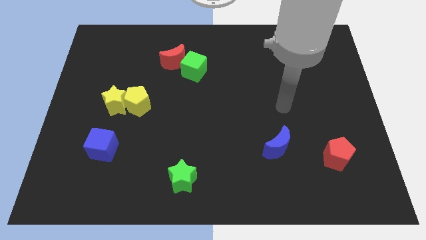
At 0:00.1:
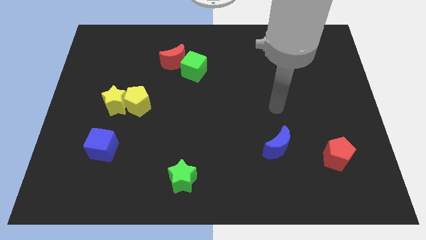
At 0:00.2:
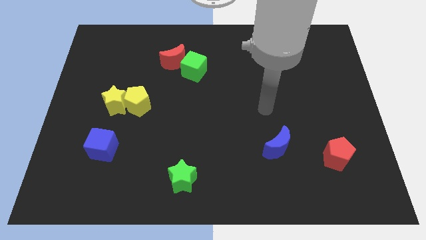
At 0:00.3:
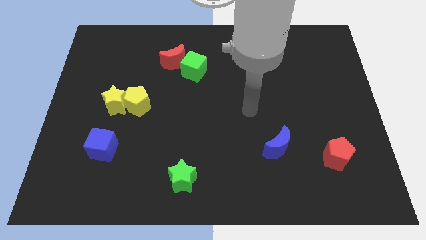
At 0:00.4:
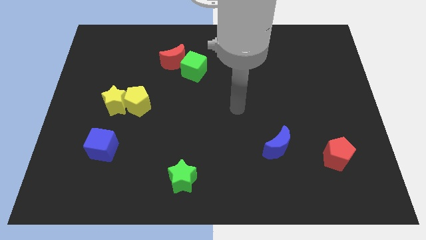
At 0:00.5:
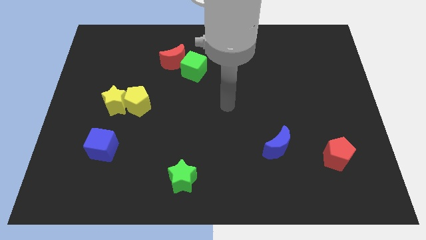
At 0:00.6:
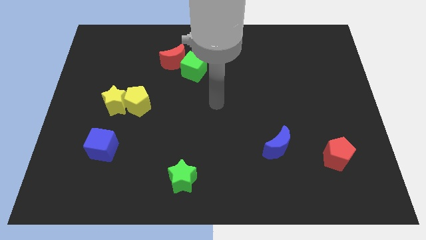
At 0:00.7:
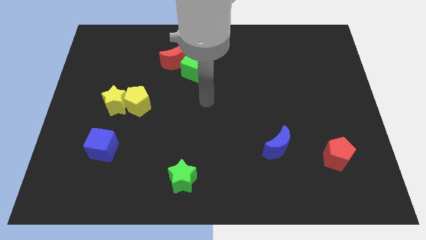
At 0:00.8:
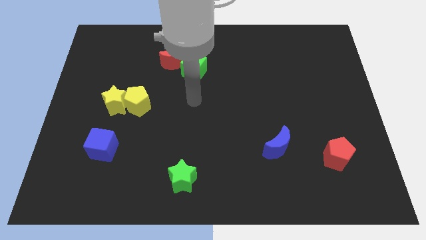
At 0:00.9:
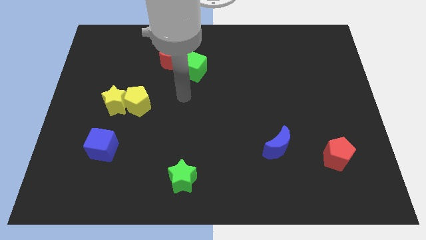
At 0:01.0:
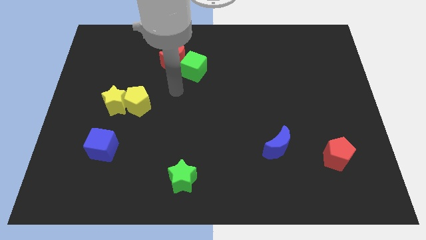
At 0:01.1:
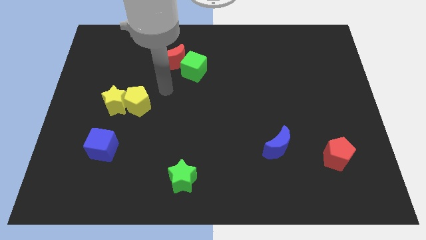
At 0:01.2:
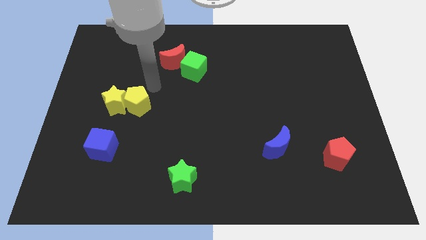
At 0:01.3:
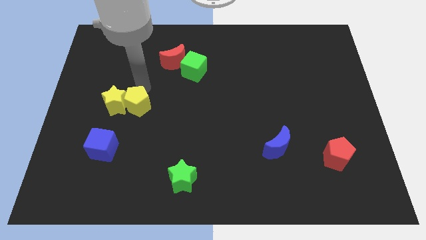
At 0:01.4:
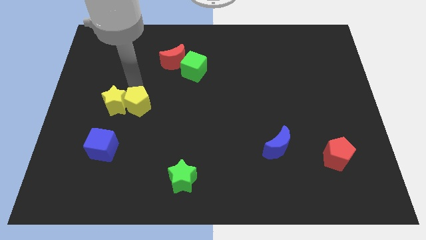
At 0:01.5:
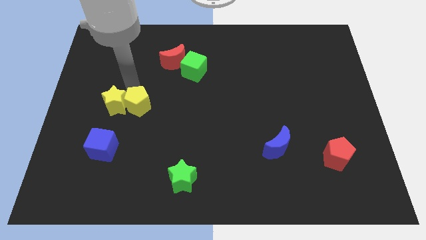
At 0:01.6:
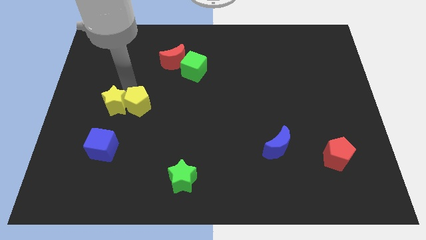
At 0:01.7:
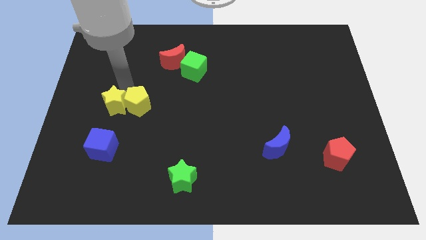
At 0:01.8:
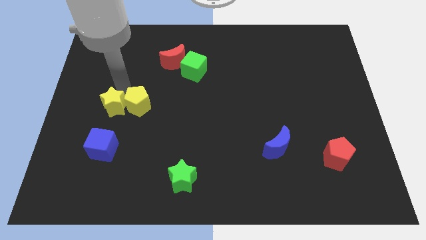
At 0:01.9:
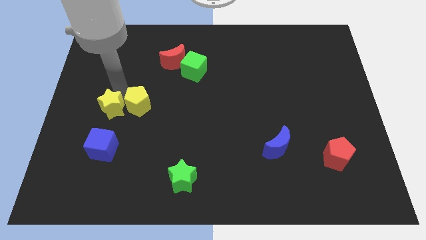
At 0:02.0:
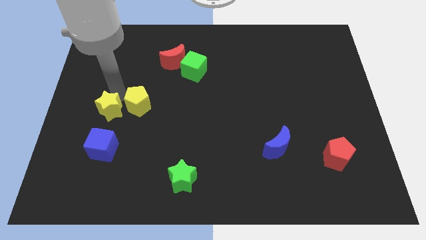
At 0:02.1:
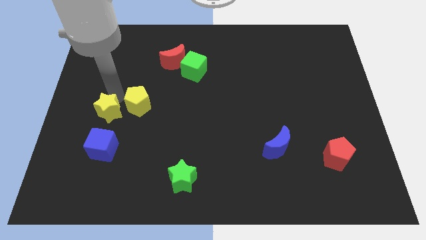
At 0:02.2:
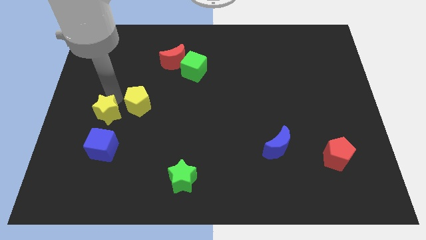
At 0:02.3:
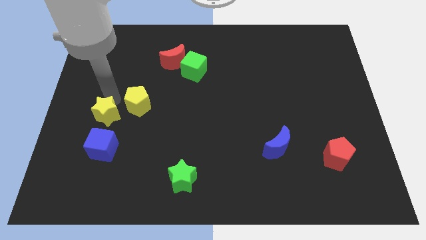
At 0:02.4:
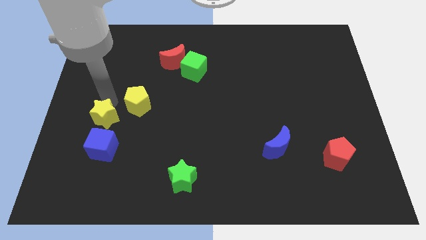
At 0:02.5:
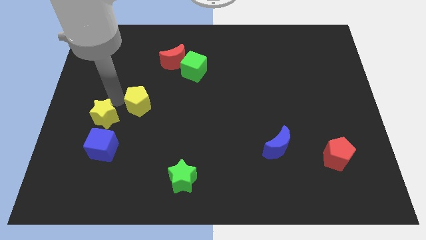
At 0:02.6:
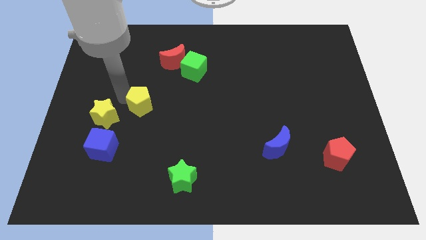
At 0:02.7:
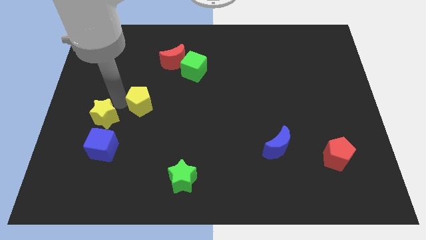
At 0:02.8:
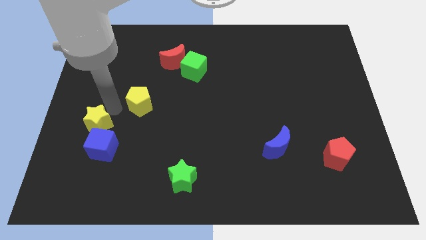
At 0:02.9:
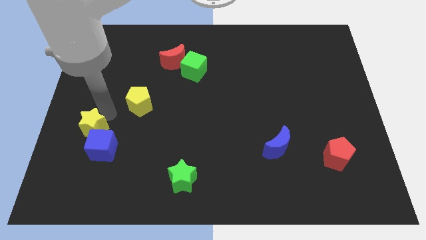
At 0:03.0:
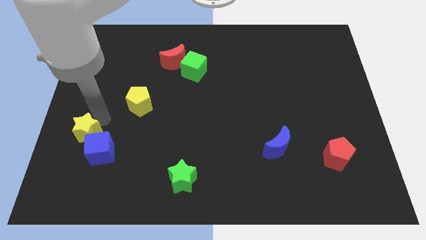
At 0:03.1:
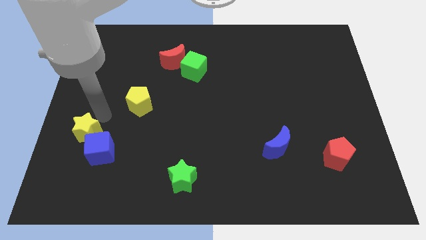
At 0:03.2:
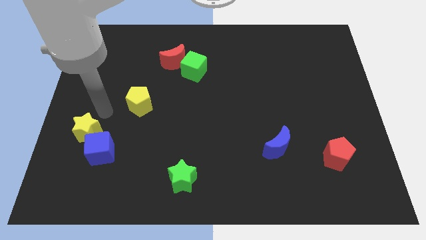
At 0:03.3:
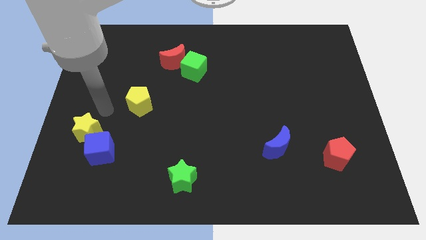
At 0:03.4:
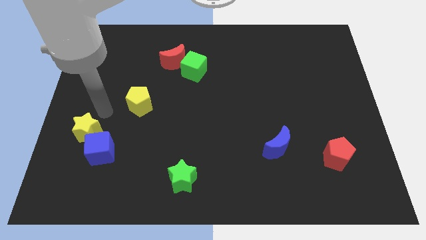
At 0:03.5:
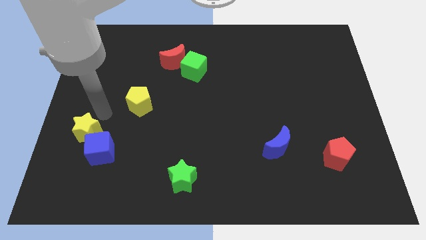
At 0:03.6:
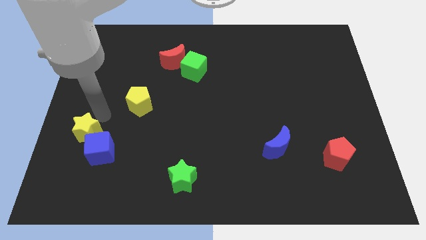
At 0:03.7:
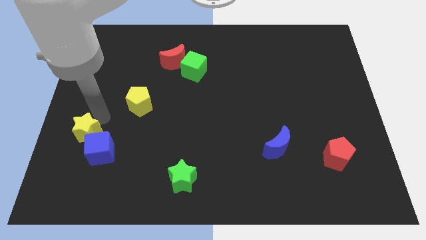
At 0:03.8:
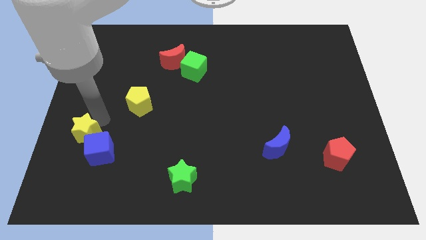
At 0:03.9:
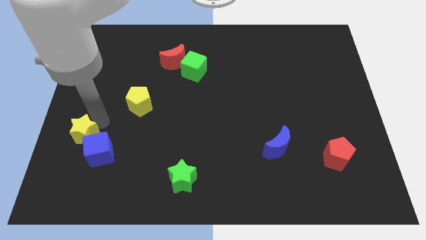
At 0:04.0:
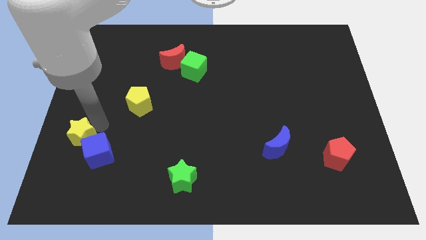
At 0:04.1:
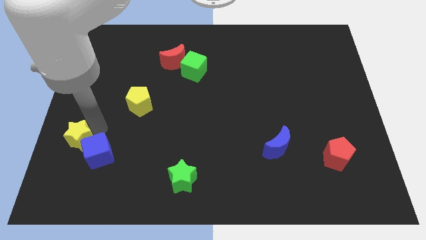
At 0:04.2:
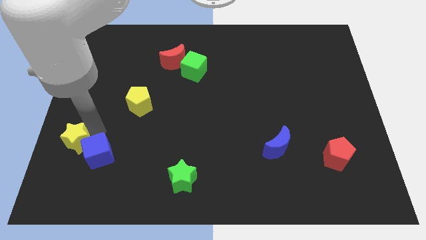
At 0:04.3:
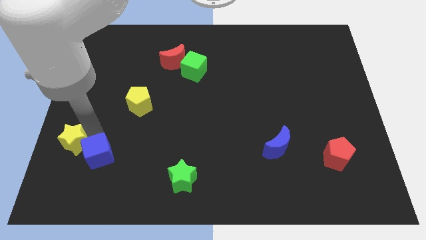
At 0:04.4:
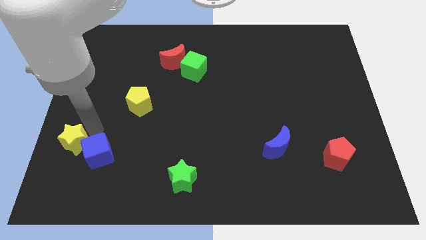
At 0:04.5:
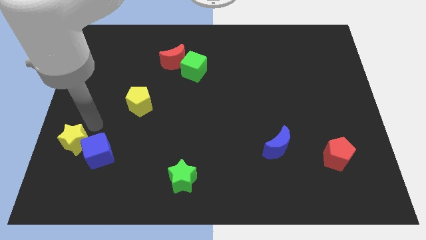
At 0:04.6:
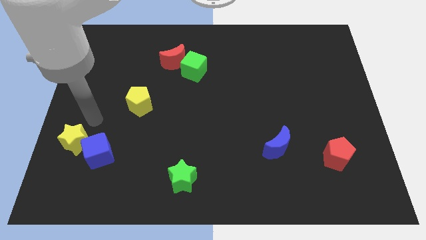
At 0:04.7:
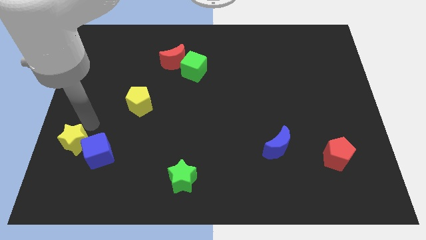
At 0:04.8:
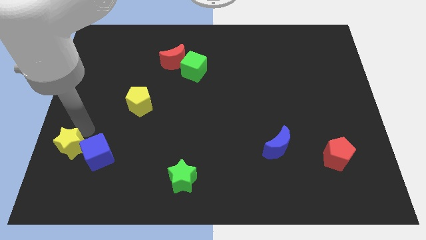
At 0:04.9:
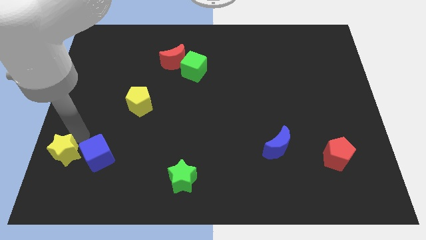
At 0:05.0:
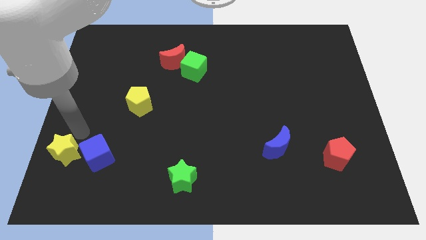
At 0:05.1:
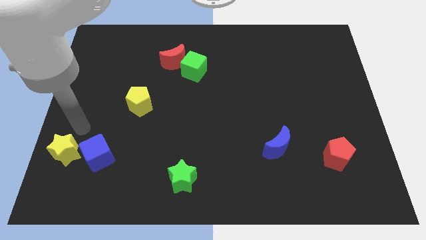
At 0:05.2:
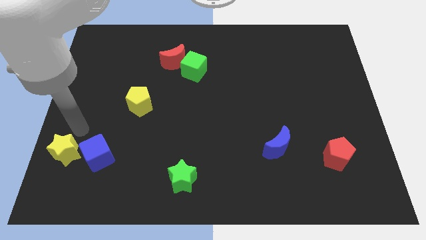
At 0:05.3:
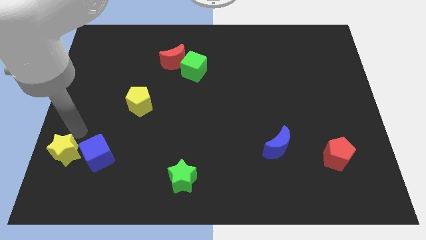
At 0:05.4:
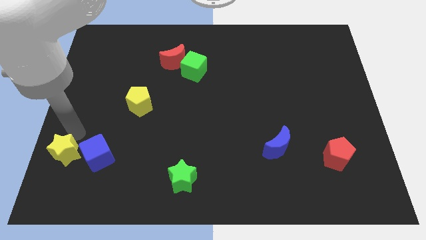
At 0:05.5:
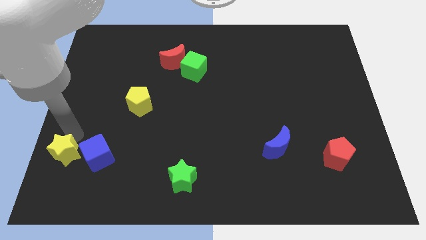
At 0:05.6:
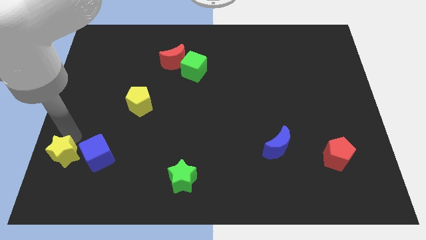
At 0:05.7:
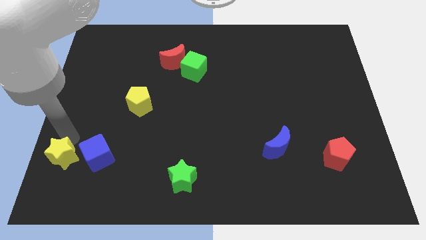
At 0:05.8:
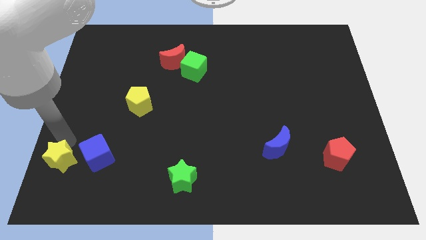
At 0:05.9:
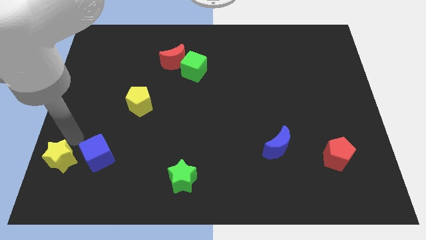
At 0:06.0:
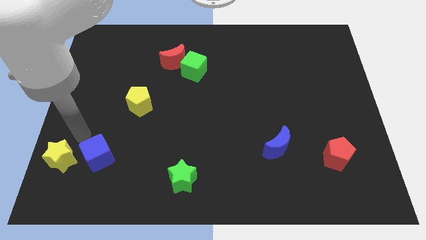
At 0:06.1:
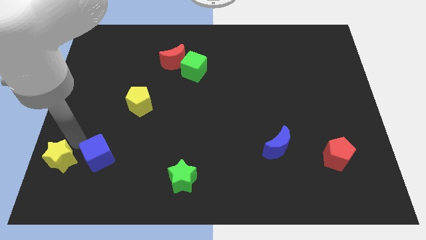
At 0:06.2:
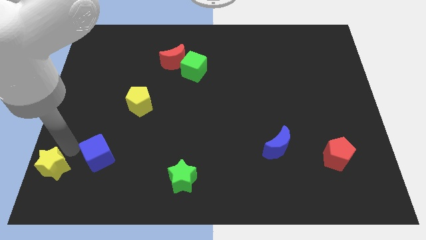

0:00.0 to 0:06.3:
put the yellow star to the bottom left corner

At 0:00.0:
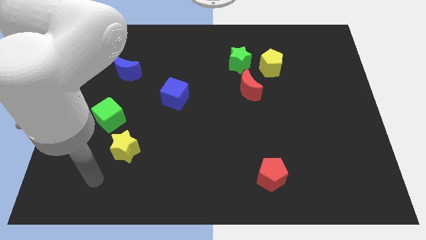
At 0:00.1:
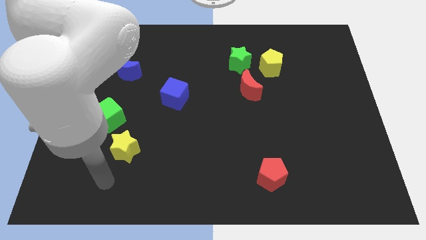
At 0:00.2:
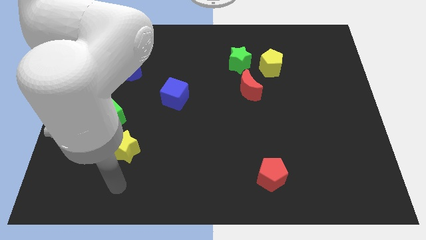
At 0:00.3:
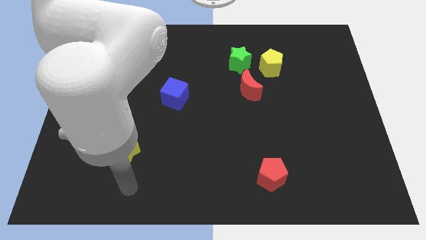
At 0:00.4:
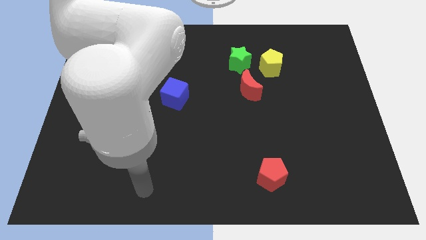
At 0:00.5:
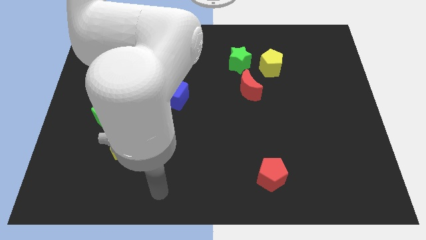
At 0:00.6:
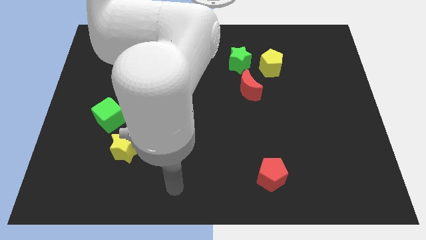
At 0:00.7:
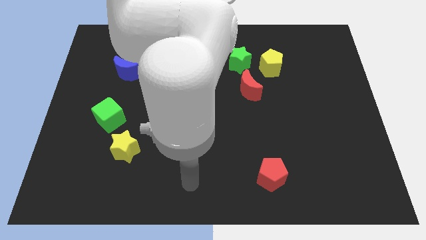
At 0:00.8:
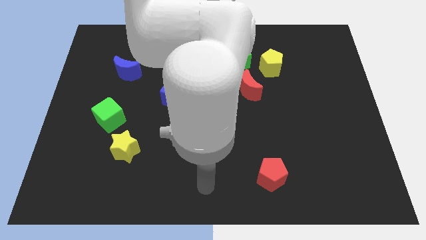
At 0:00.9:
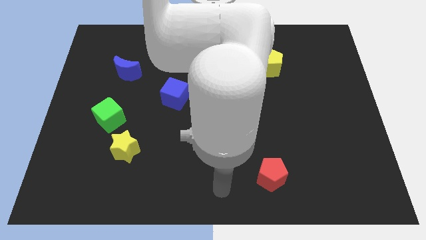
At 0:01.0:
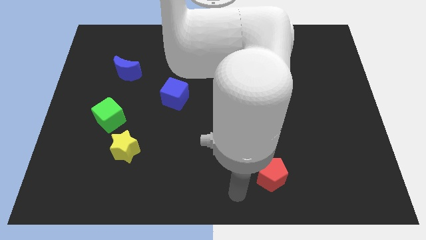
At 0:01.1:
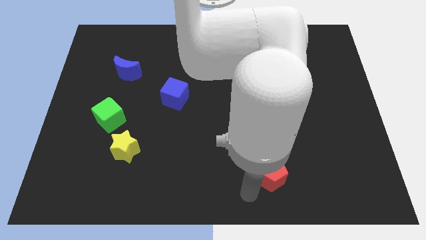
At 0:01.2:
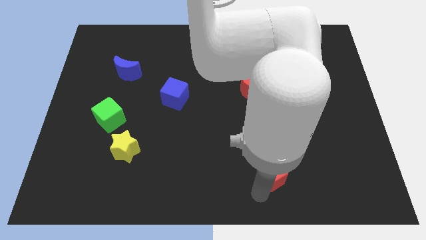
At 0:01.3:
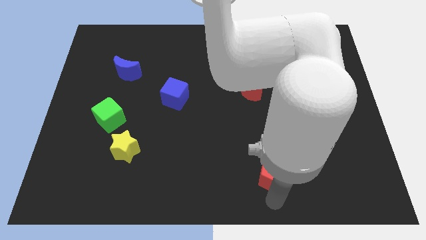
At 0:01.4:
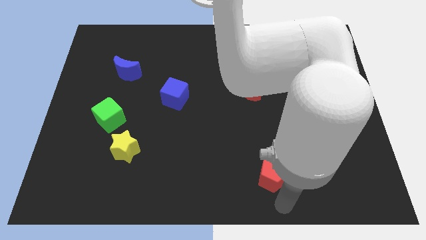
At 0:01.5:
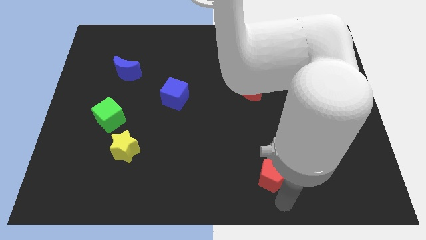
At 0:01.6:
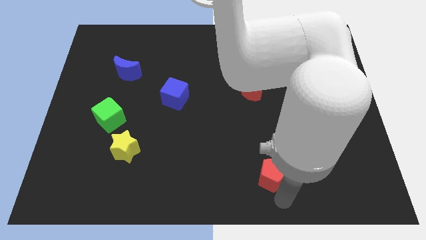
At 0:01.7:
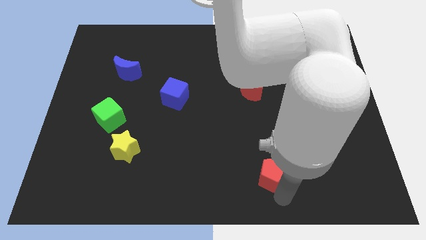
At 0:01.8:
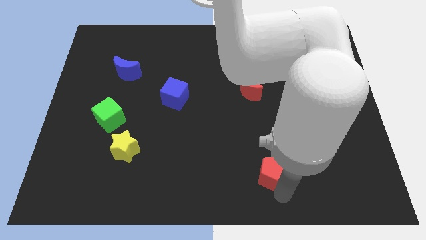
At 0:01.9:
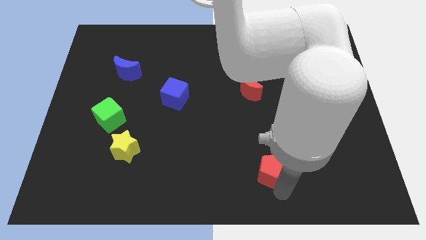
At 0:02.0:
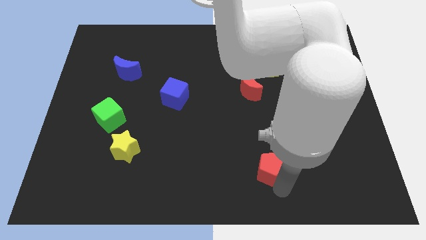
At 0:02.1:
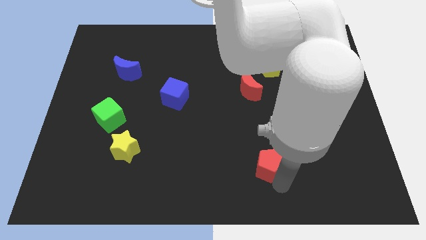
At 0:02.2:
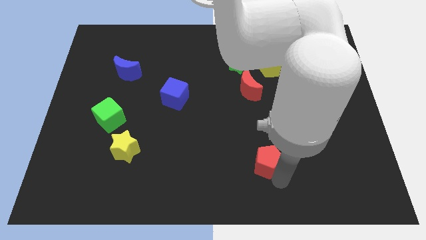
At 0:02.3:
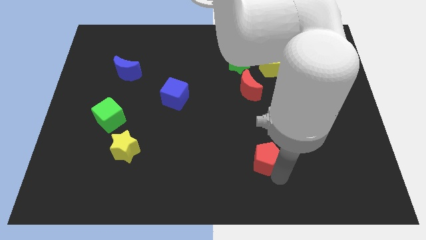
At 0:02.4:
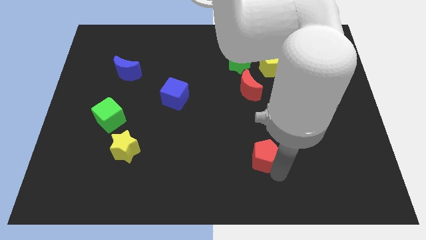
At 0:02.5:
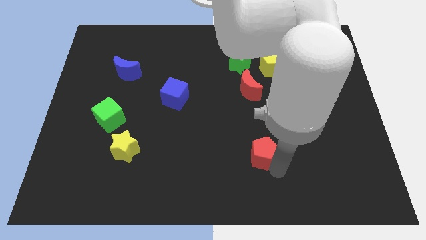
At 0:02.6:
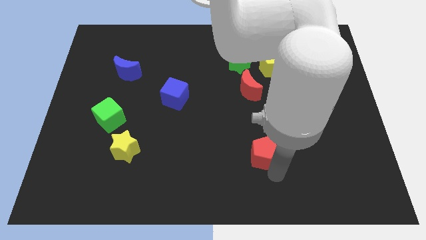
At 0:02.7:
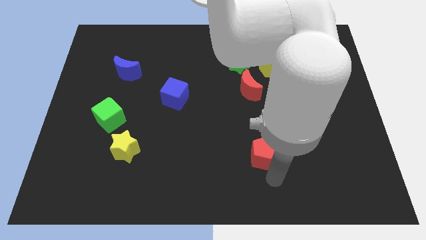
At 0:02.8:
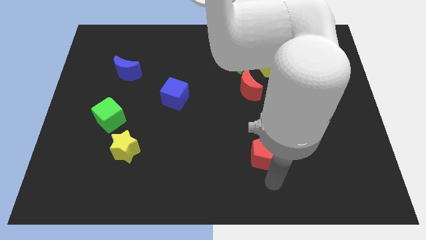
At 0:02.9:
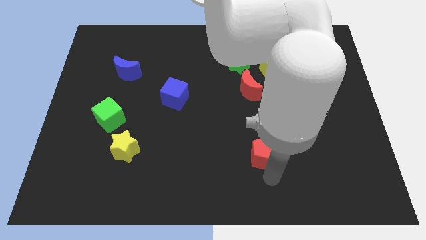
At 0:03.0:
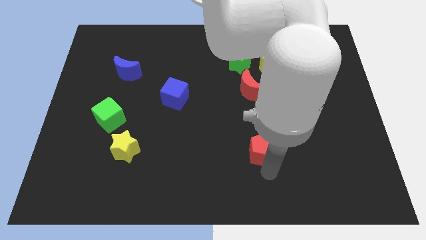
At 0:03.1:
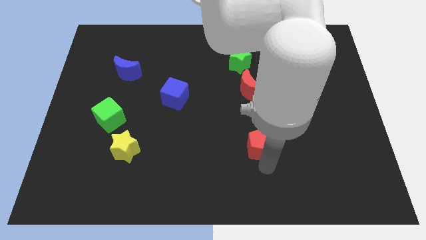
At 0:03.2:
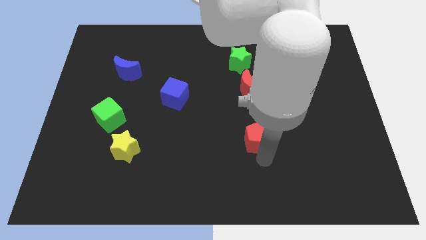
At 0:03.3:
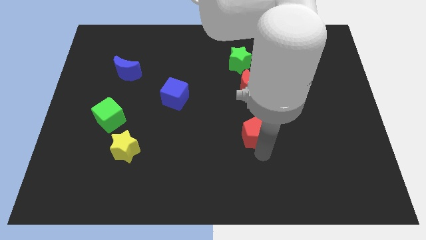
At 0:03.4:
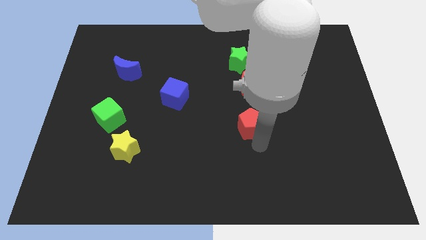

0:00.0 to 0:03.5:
move the red pentagon to the middle
